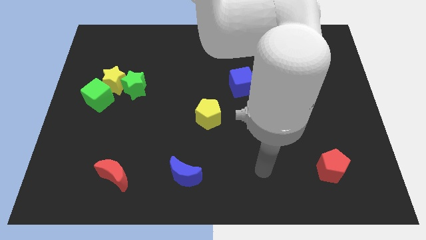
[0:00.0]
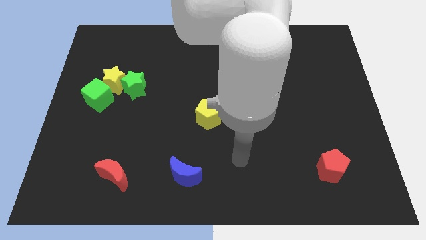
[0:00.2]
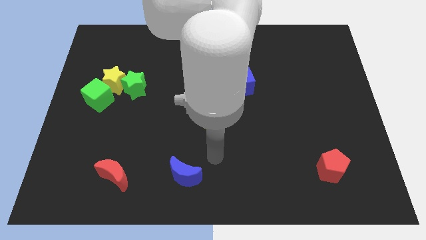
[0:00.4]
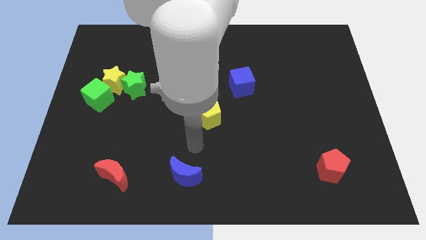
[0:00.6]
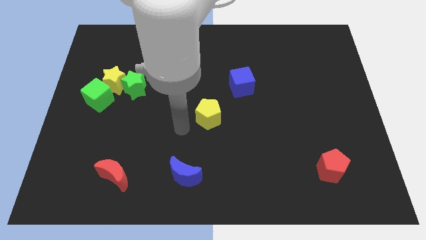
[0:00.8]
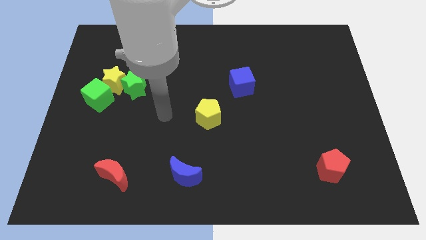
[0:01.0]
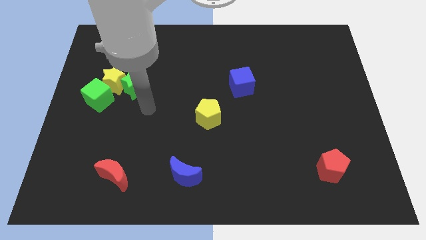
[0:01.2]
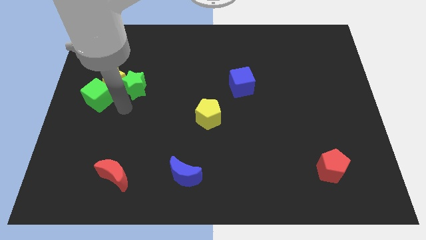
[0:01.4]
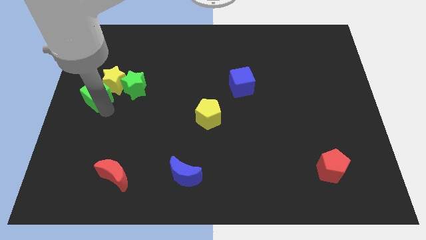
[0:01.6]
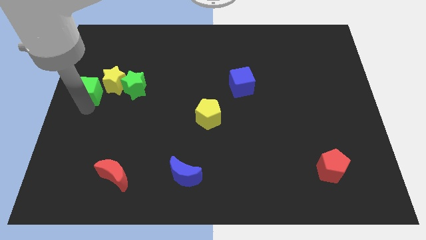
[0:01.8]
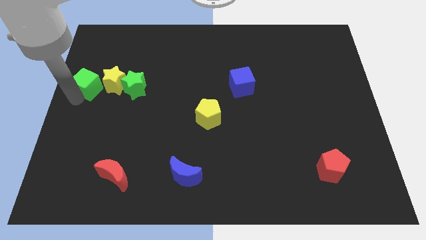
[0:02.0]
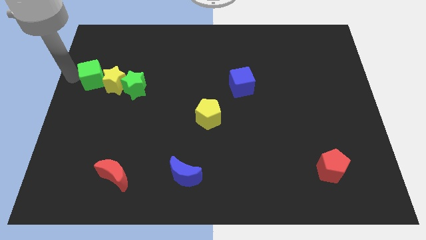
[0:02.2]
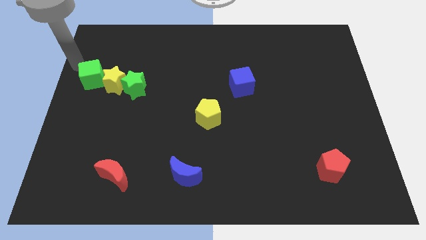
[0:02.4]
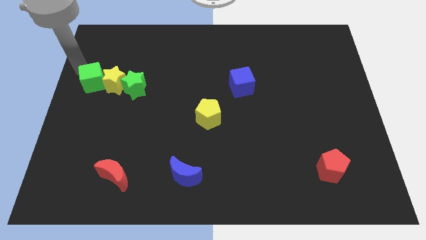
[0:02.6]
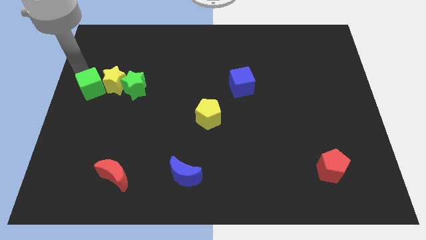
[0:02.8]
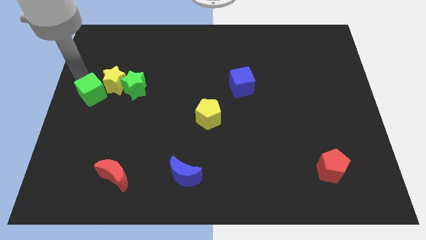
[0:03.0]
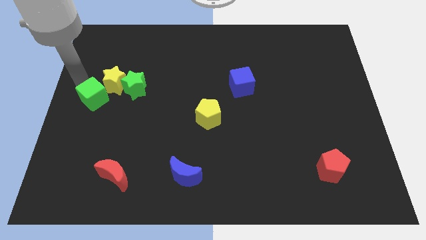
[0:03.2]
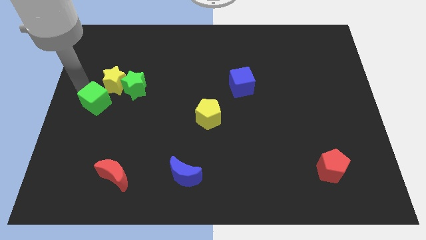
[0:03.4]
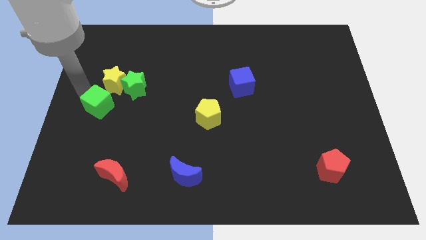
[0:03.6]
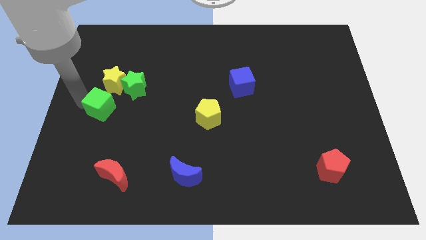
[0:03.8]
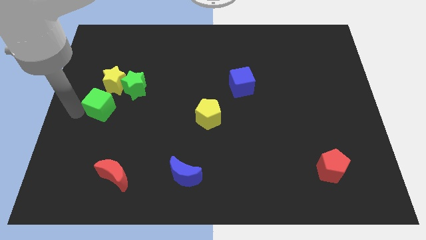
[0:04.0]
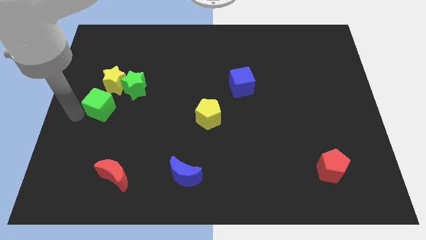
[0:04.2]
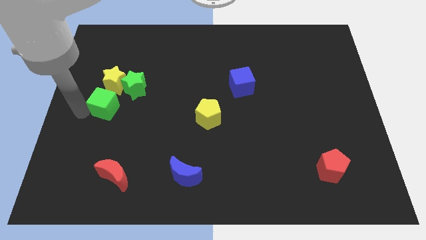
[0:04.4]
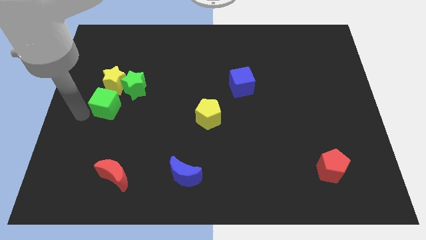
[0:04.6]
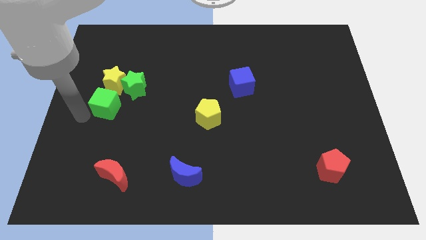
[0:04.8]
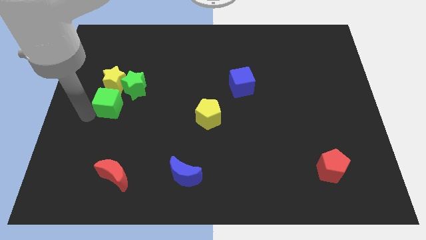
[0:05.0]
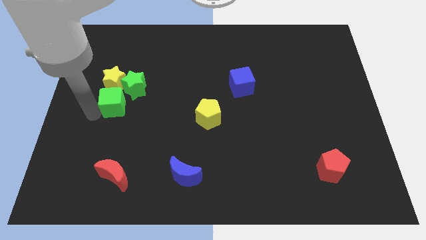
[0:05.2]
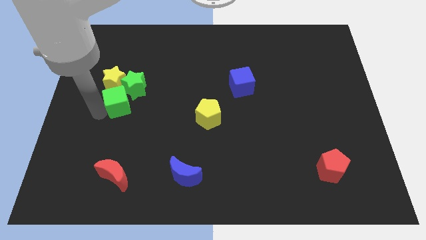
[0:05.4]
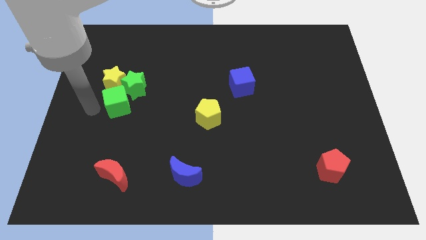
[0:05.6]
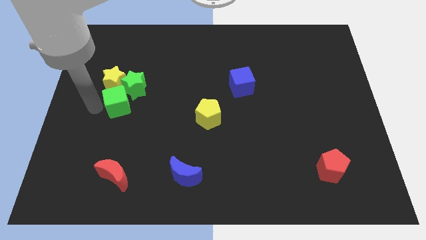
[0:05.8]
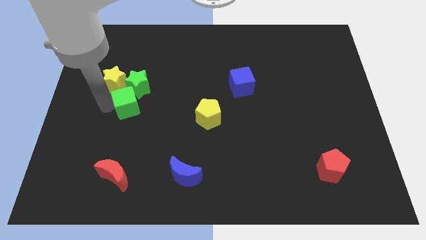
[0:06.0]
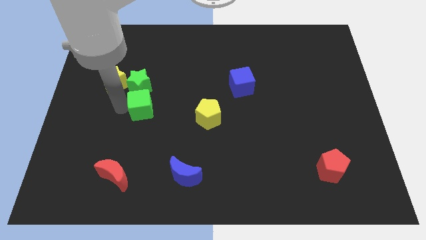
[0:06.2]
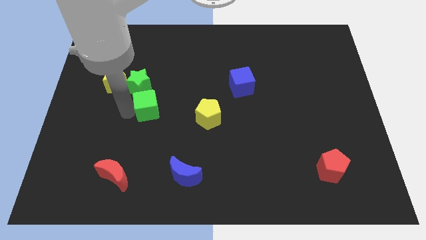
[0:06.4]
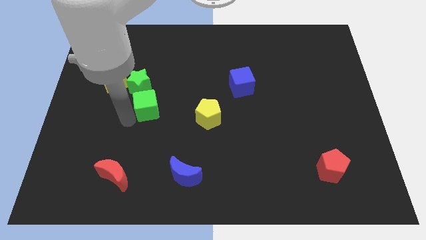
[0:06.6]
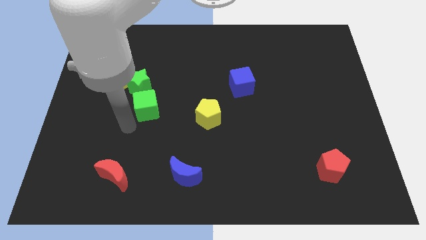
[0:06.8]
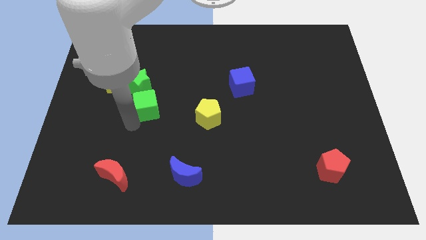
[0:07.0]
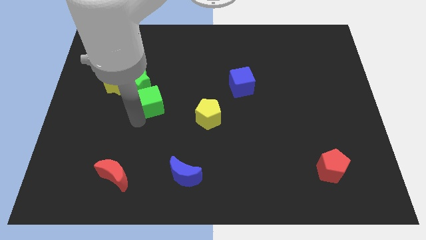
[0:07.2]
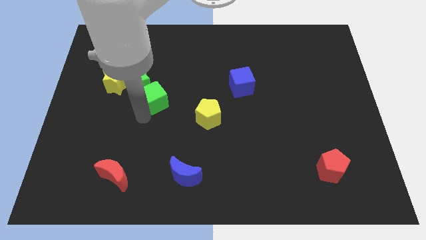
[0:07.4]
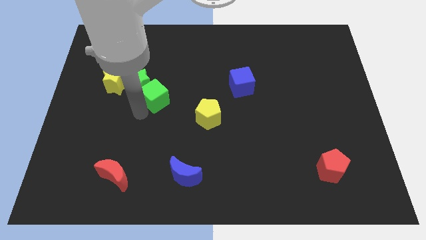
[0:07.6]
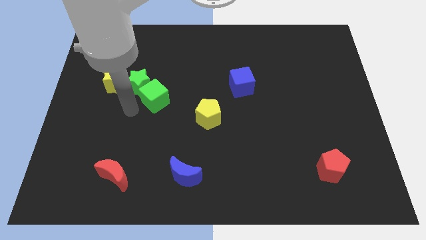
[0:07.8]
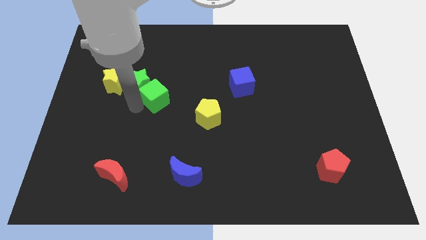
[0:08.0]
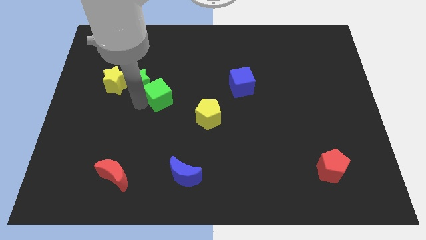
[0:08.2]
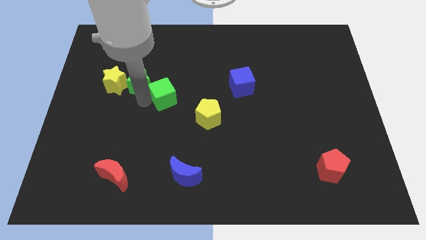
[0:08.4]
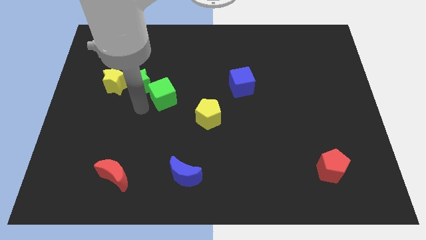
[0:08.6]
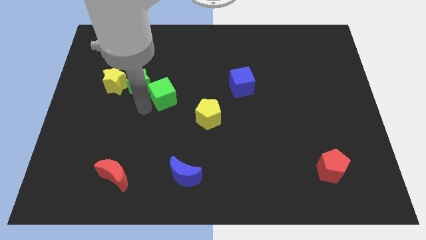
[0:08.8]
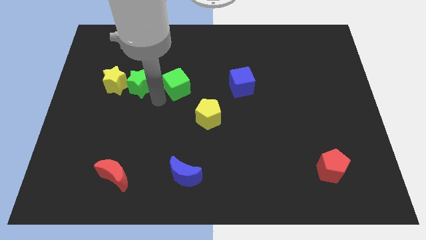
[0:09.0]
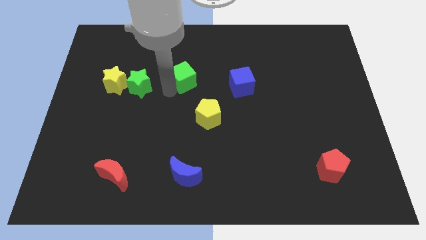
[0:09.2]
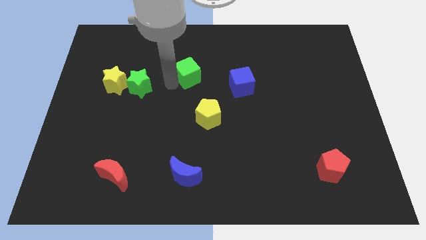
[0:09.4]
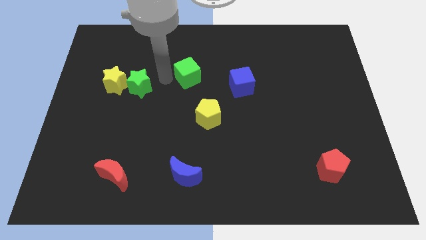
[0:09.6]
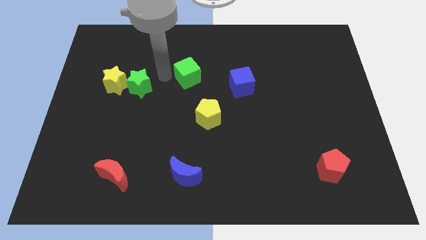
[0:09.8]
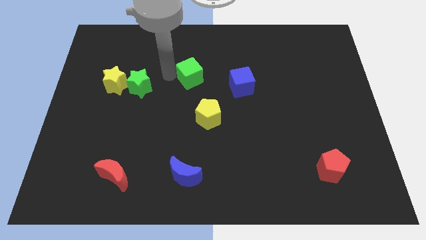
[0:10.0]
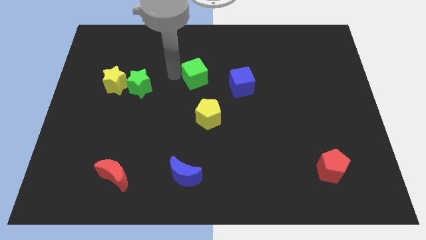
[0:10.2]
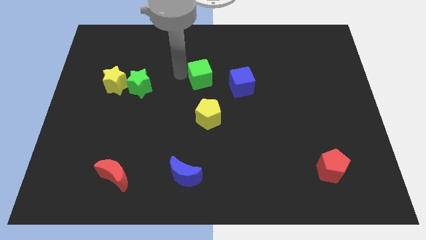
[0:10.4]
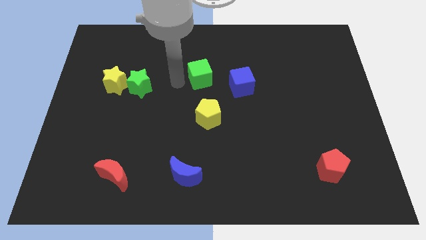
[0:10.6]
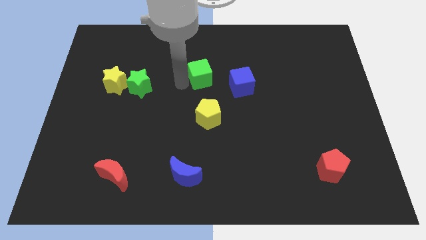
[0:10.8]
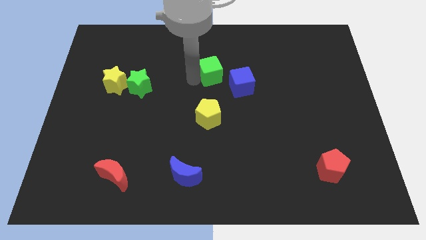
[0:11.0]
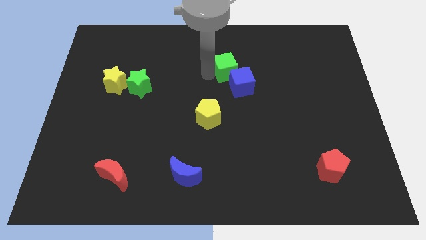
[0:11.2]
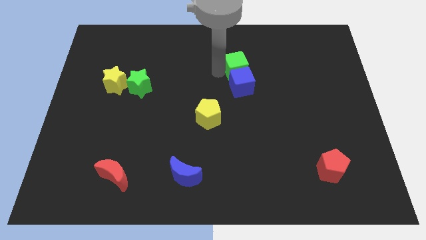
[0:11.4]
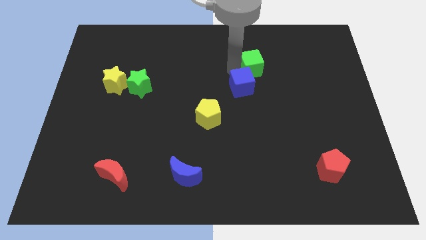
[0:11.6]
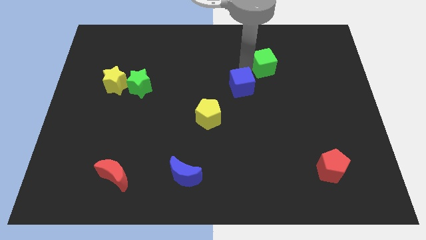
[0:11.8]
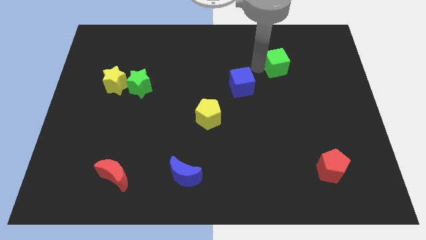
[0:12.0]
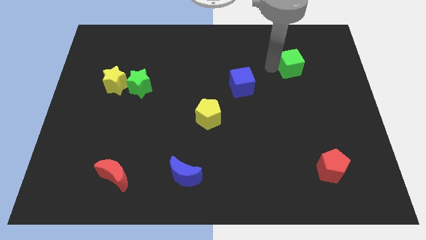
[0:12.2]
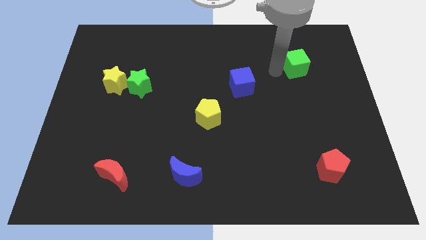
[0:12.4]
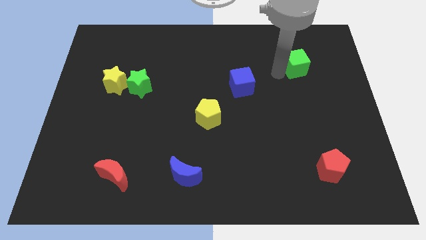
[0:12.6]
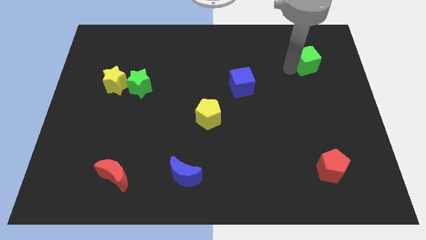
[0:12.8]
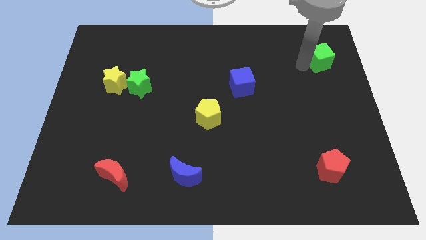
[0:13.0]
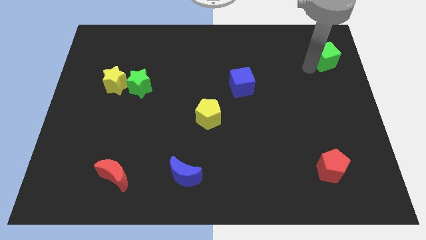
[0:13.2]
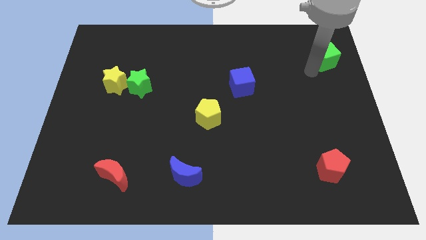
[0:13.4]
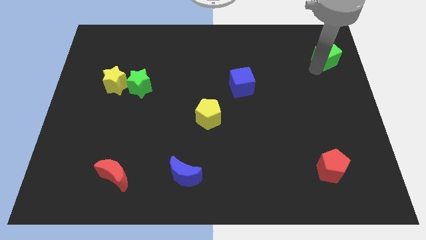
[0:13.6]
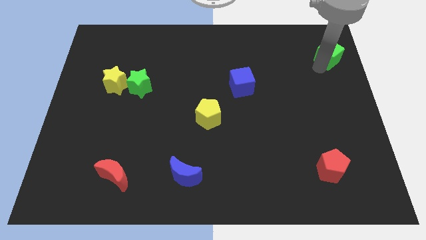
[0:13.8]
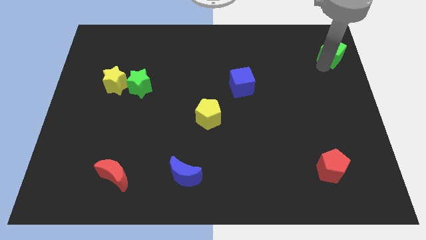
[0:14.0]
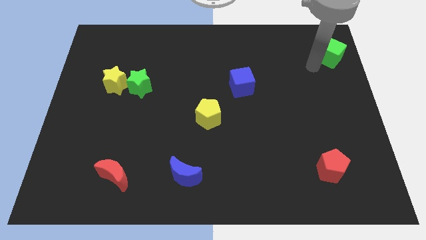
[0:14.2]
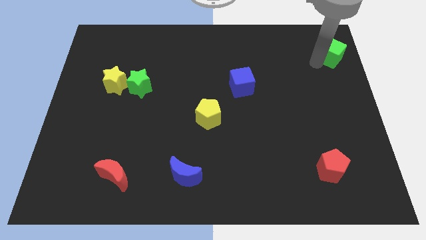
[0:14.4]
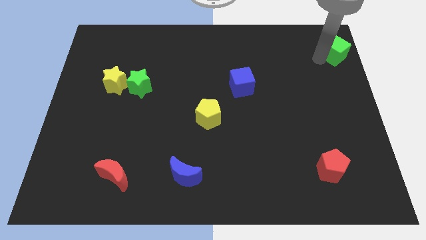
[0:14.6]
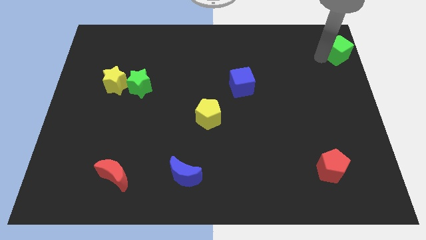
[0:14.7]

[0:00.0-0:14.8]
slide the green cube to the top right

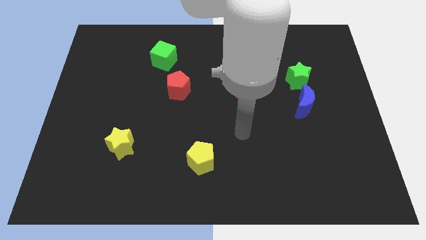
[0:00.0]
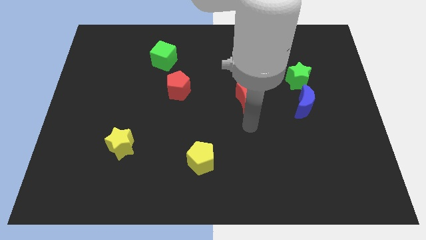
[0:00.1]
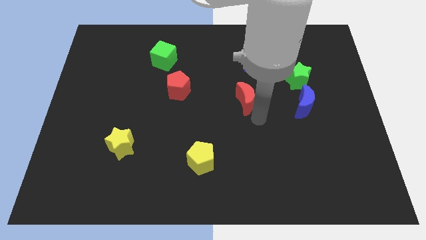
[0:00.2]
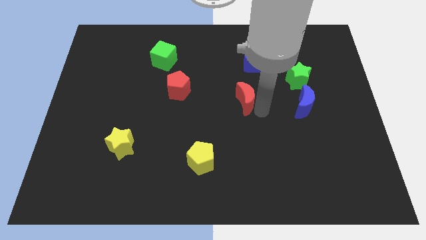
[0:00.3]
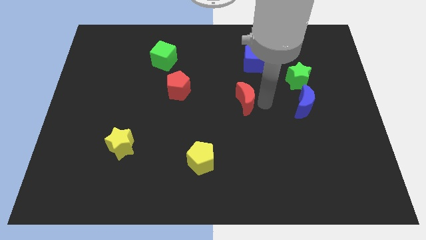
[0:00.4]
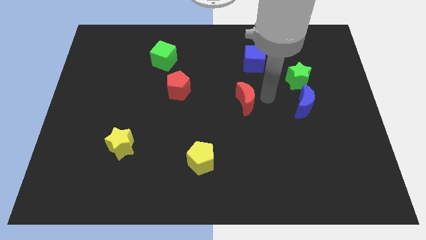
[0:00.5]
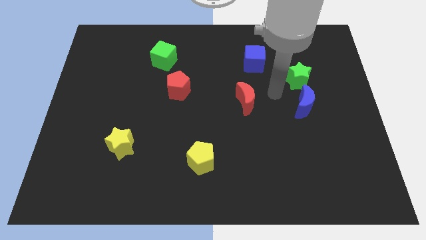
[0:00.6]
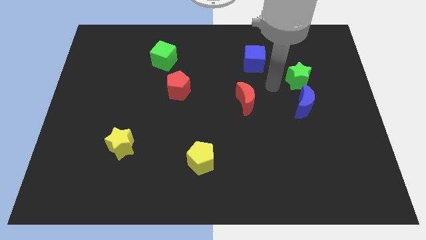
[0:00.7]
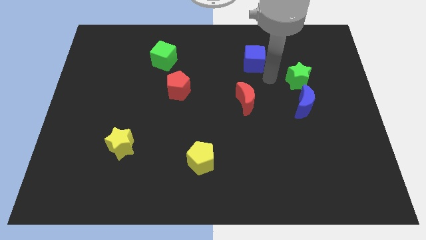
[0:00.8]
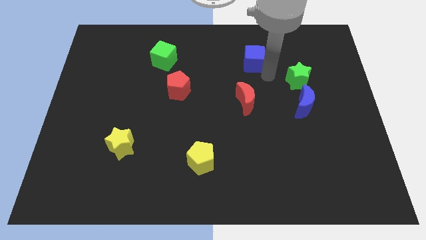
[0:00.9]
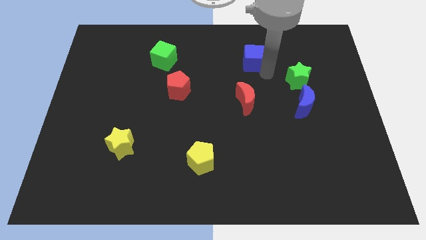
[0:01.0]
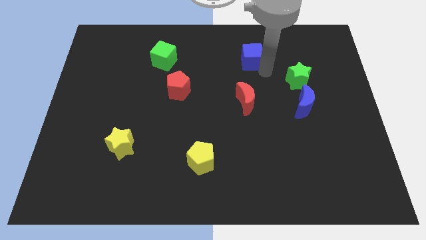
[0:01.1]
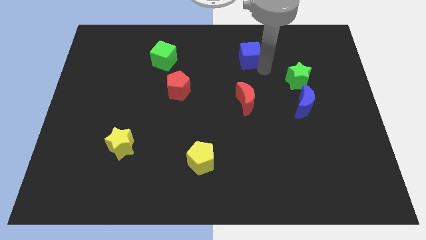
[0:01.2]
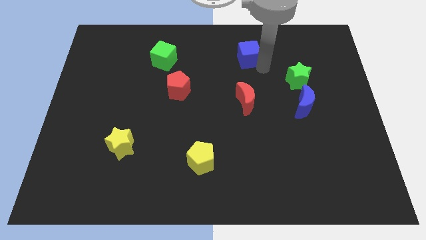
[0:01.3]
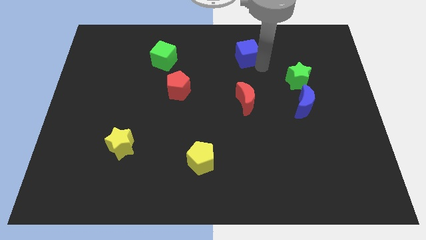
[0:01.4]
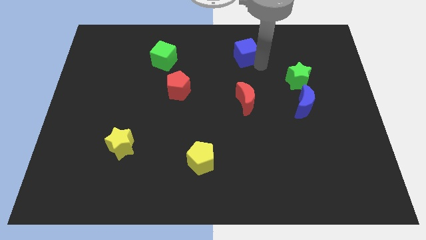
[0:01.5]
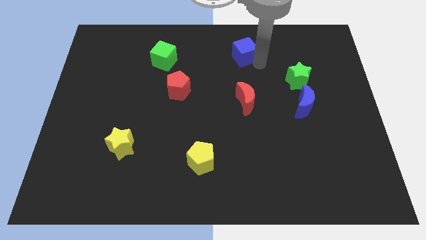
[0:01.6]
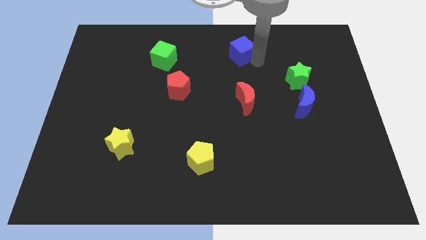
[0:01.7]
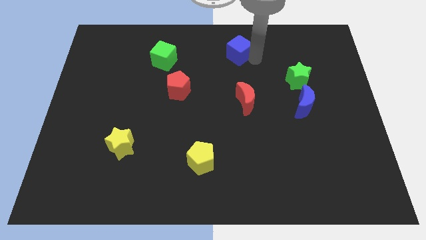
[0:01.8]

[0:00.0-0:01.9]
slide the blue cube to the top
